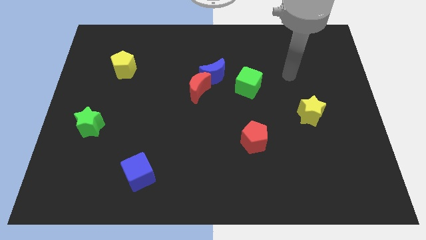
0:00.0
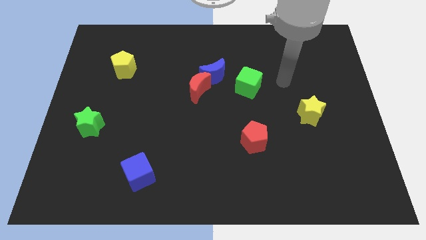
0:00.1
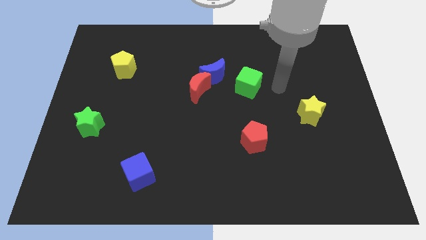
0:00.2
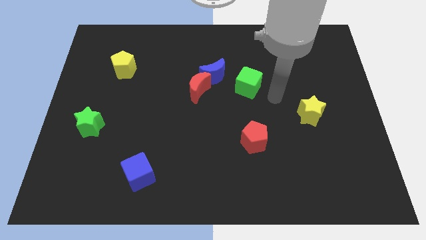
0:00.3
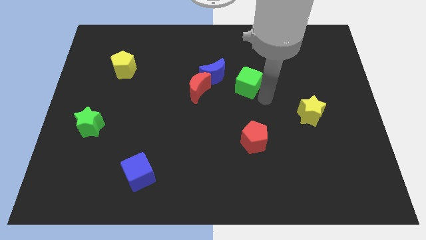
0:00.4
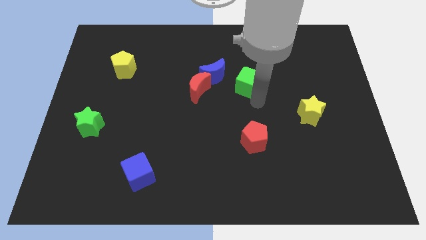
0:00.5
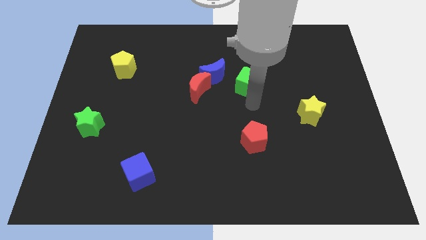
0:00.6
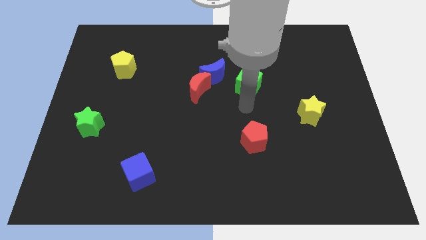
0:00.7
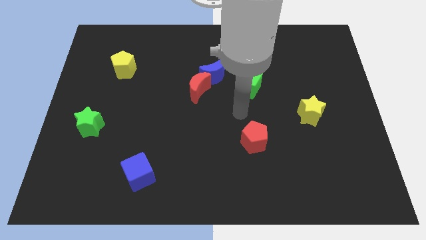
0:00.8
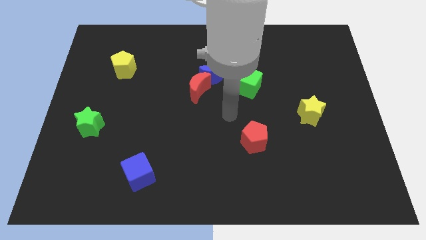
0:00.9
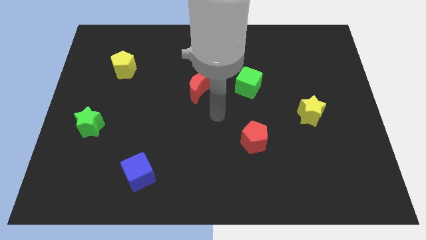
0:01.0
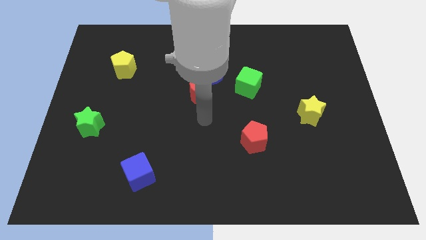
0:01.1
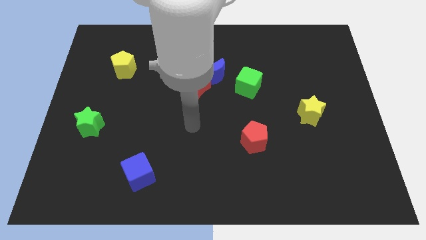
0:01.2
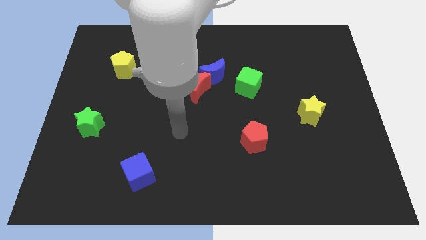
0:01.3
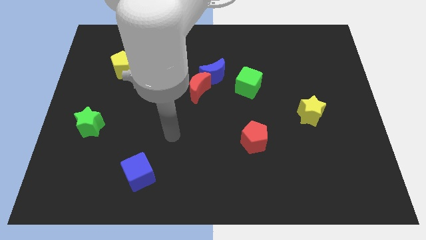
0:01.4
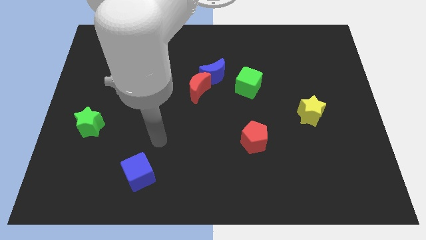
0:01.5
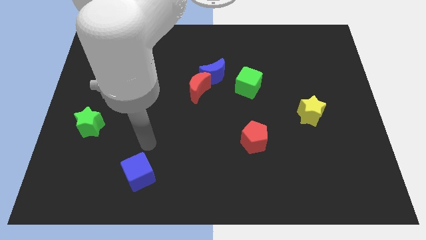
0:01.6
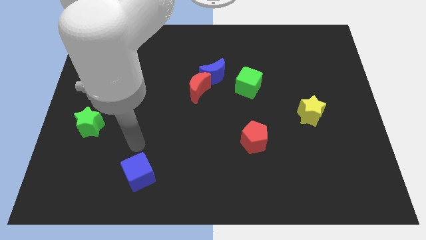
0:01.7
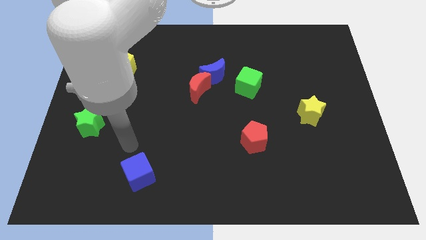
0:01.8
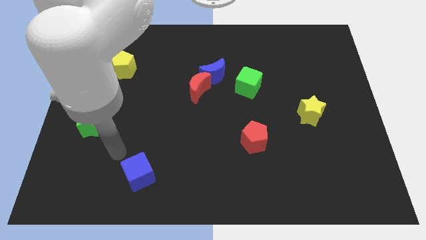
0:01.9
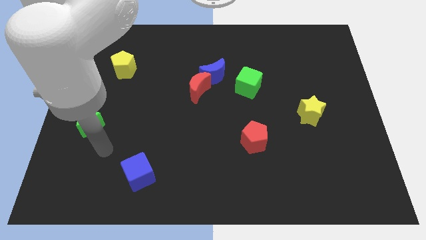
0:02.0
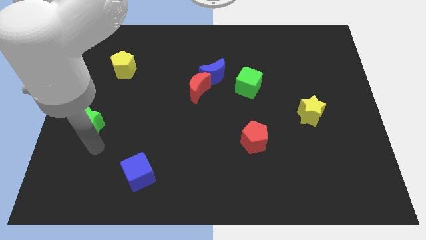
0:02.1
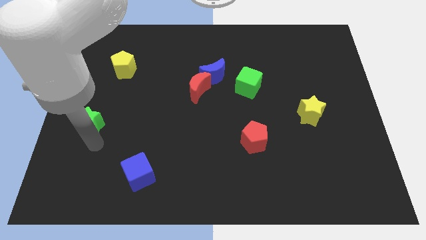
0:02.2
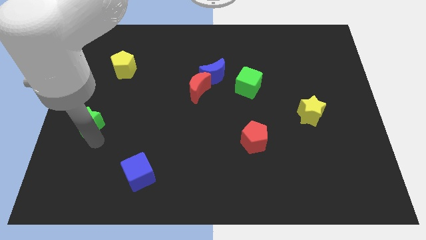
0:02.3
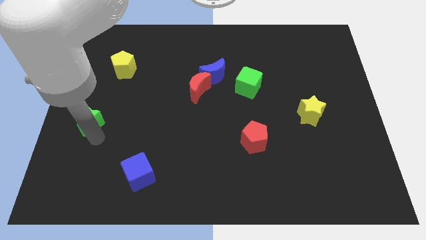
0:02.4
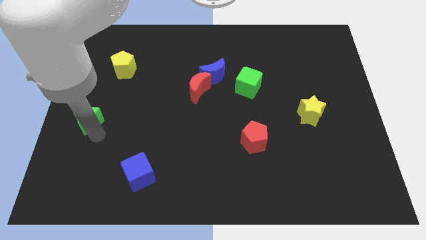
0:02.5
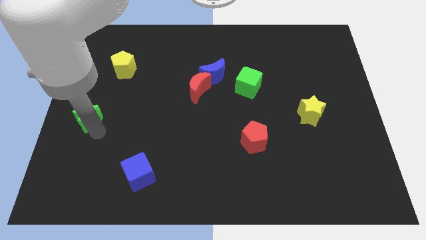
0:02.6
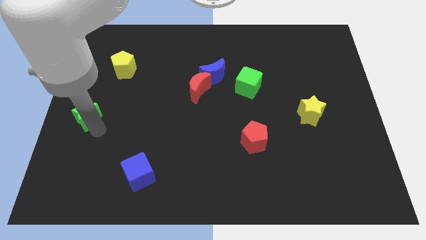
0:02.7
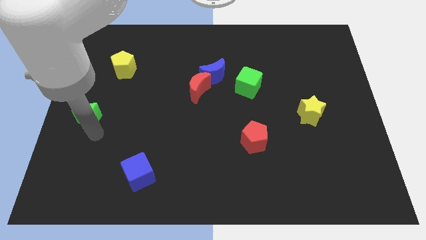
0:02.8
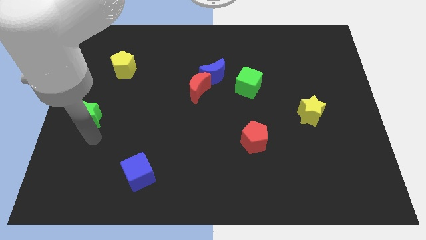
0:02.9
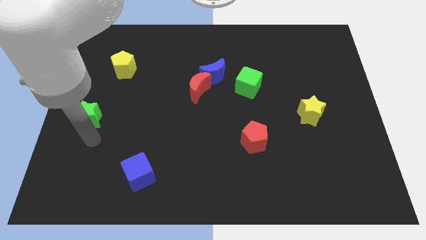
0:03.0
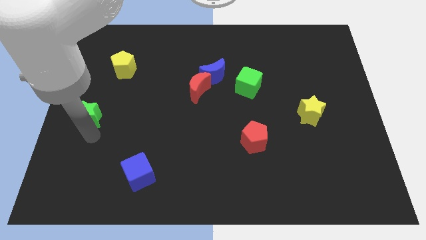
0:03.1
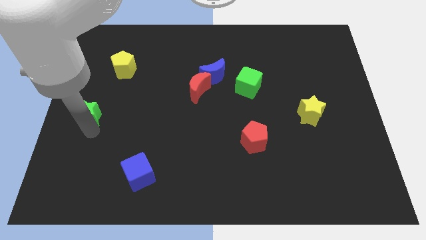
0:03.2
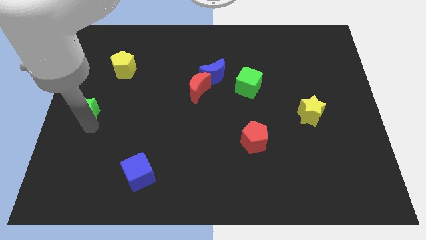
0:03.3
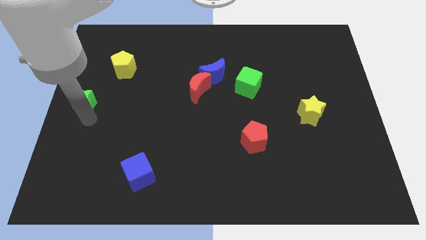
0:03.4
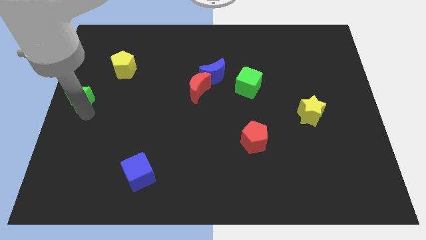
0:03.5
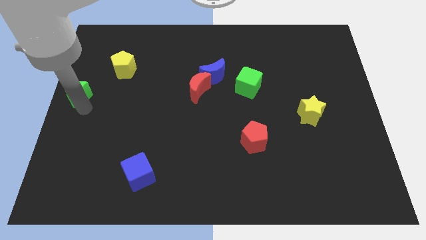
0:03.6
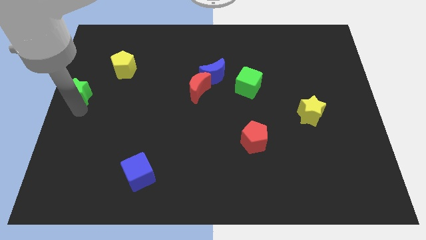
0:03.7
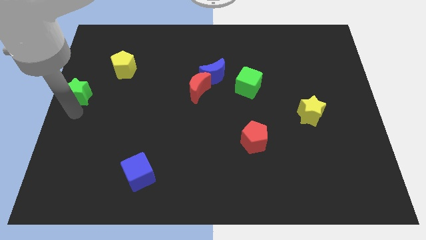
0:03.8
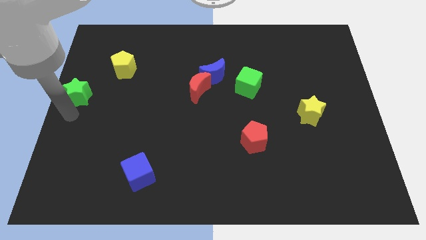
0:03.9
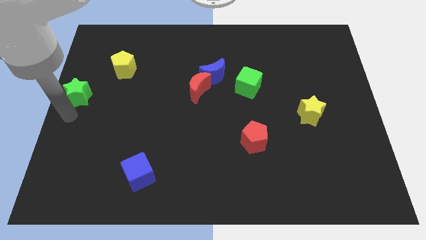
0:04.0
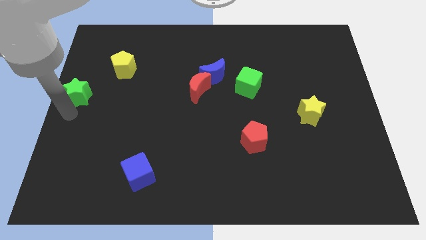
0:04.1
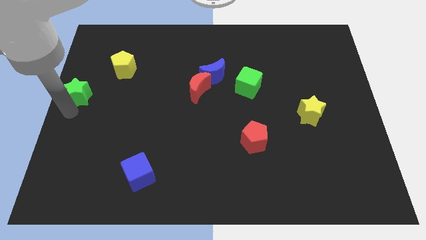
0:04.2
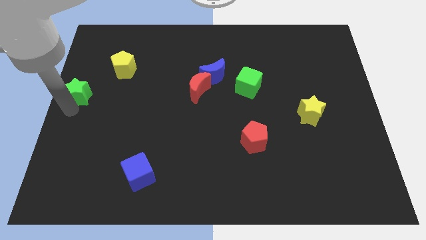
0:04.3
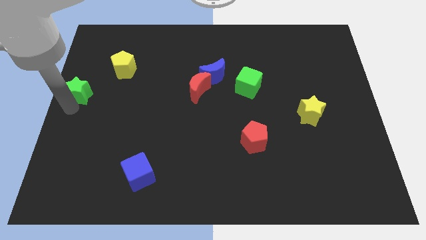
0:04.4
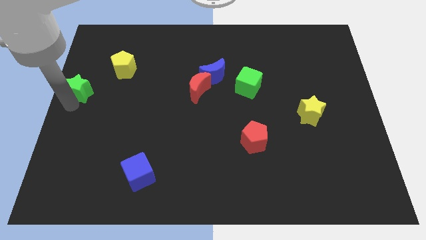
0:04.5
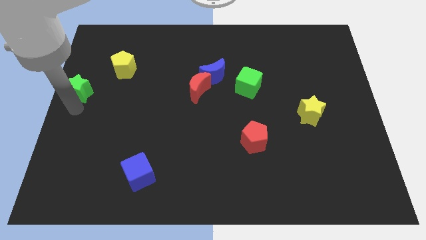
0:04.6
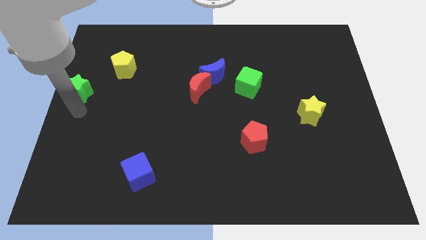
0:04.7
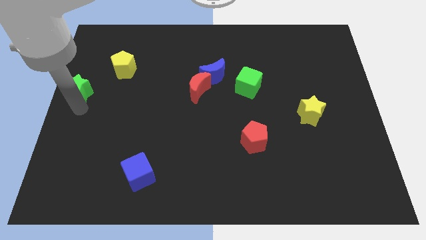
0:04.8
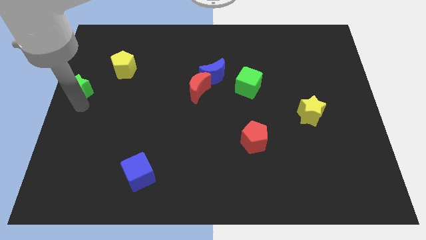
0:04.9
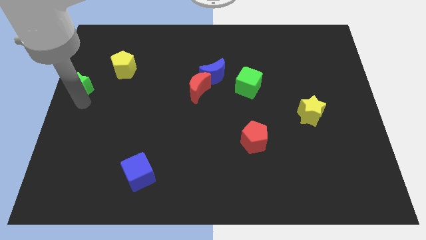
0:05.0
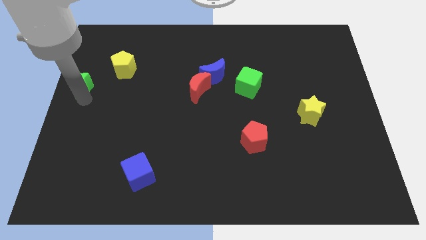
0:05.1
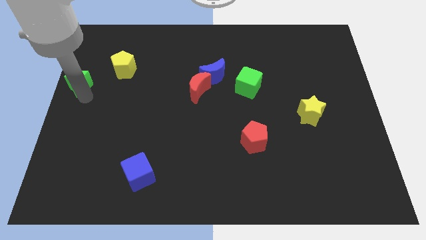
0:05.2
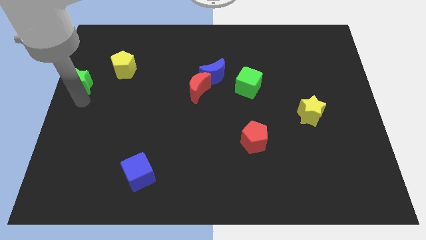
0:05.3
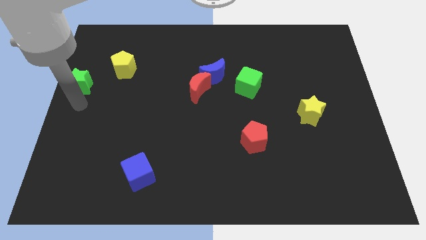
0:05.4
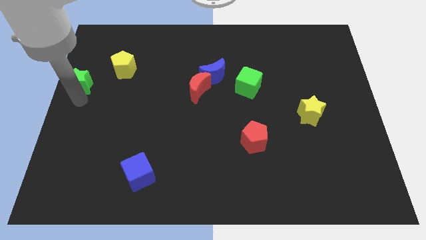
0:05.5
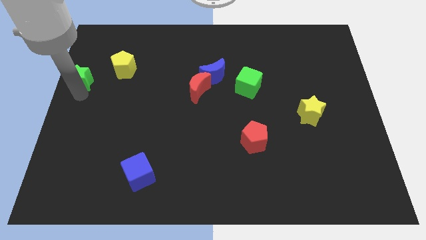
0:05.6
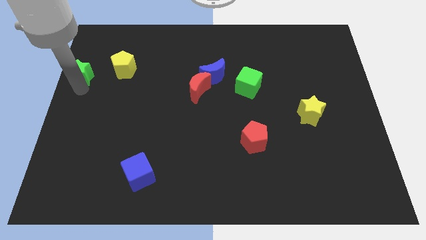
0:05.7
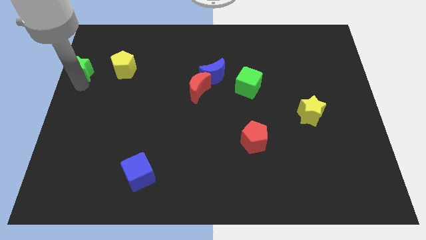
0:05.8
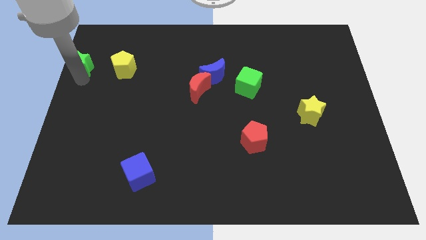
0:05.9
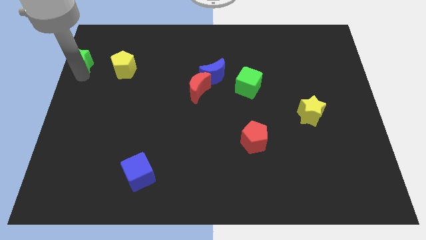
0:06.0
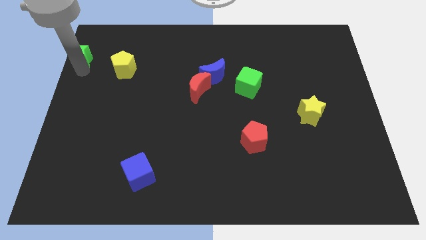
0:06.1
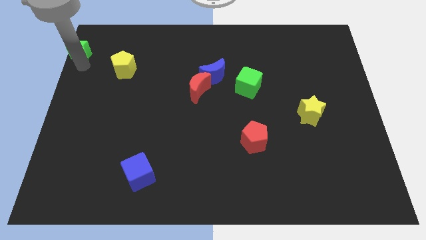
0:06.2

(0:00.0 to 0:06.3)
move the green star to the top left
